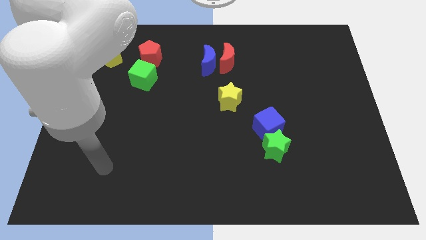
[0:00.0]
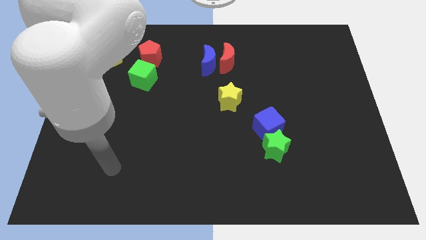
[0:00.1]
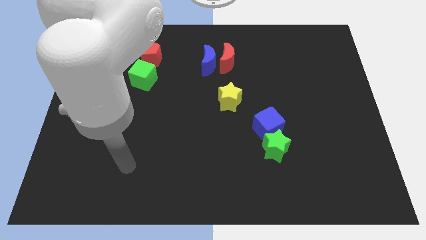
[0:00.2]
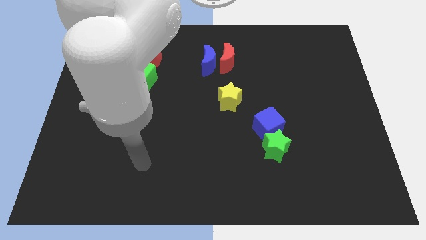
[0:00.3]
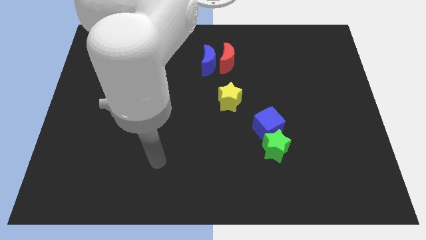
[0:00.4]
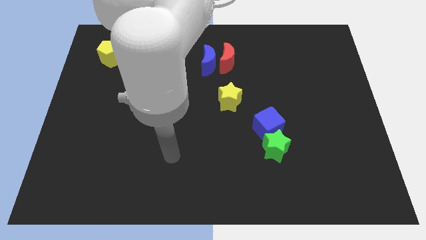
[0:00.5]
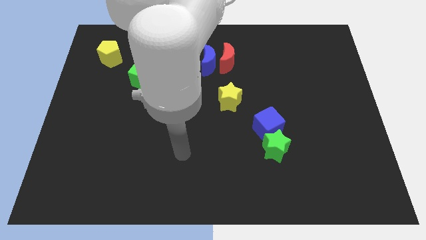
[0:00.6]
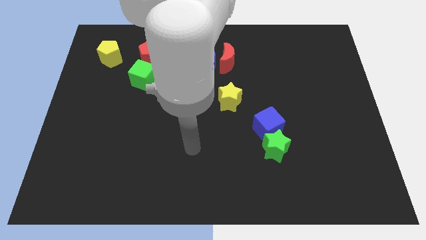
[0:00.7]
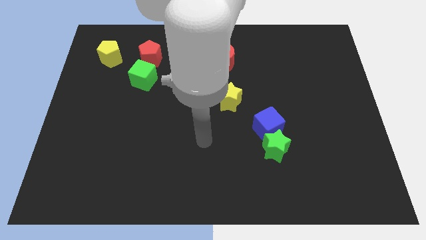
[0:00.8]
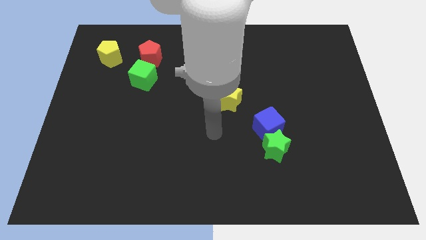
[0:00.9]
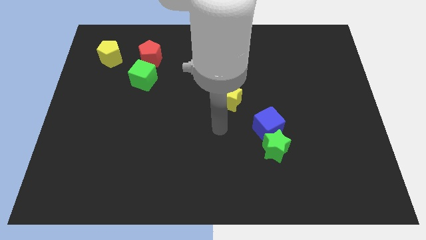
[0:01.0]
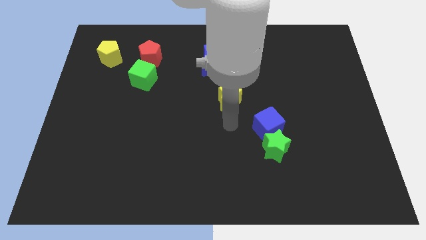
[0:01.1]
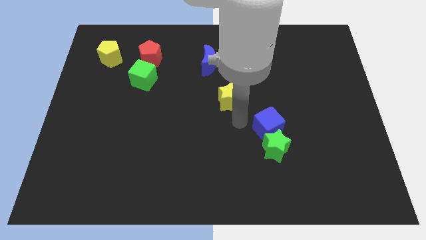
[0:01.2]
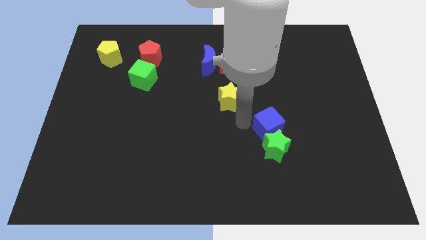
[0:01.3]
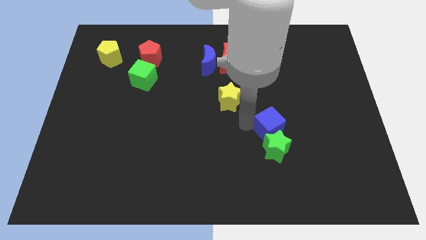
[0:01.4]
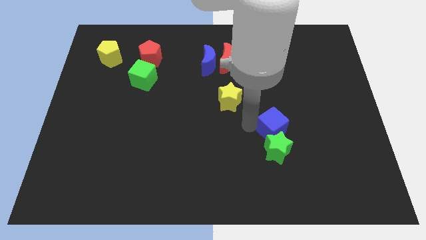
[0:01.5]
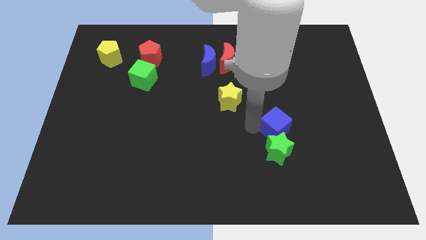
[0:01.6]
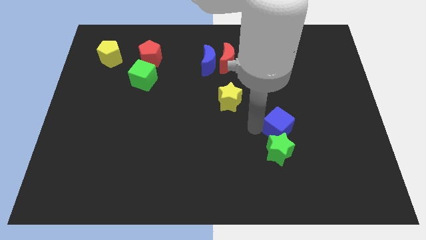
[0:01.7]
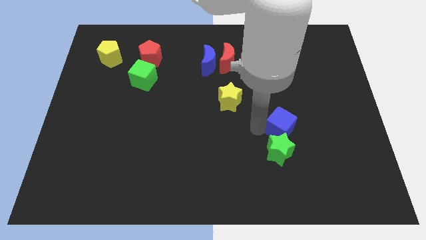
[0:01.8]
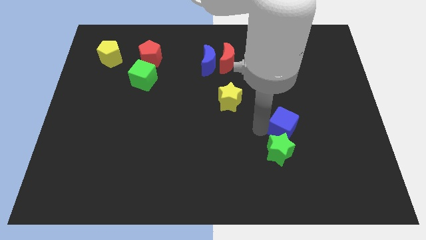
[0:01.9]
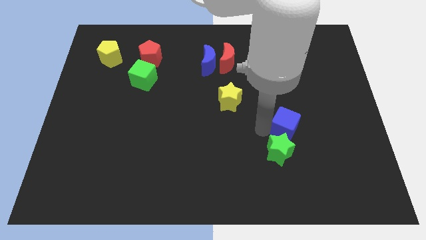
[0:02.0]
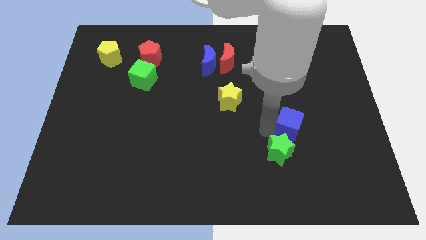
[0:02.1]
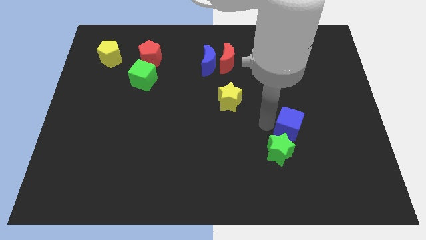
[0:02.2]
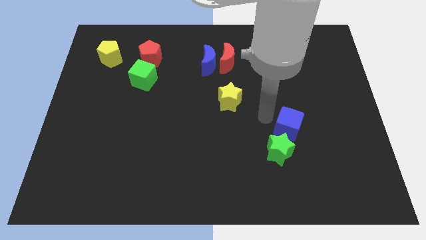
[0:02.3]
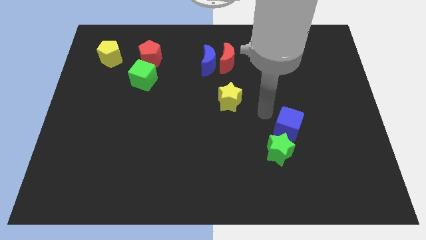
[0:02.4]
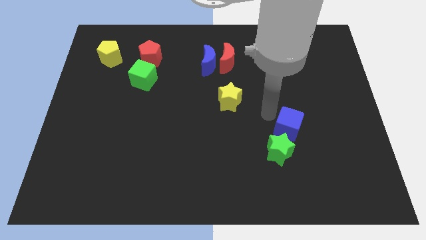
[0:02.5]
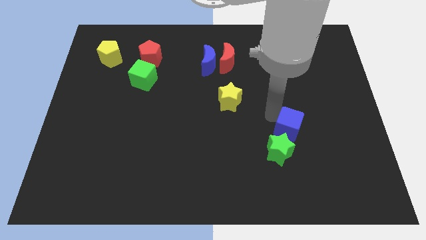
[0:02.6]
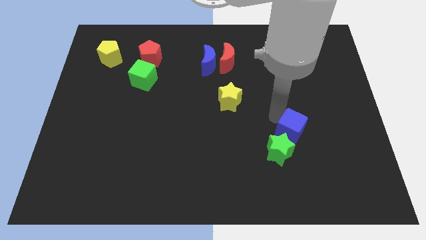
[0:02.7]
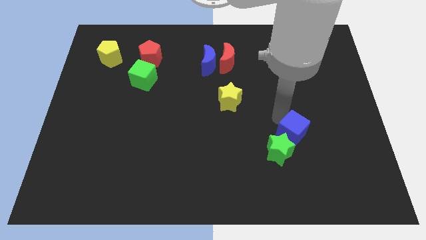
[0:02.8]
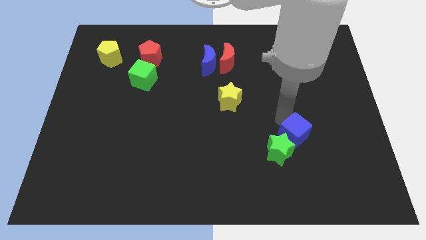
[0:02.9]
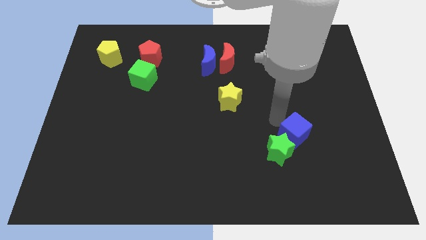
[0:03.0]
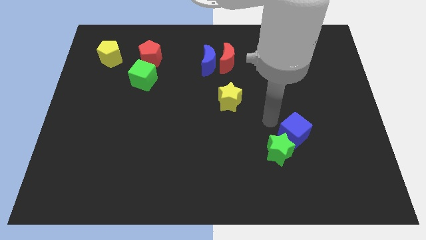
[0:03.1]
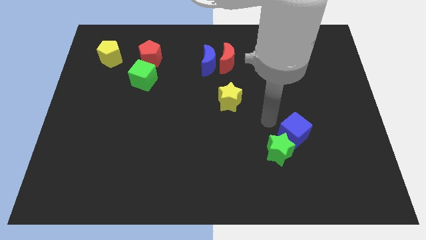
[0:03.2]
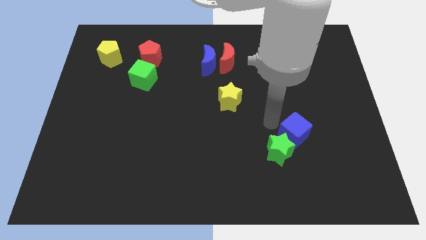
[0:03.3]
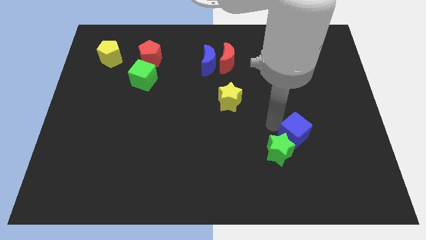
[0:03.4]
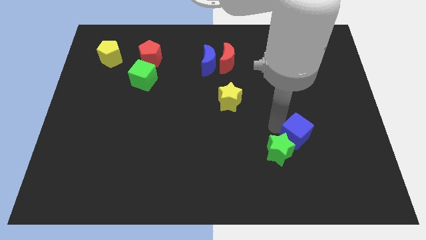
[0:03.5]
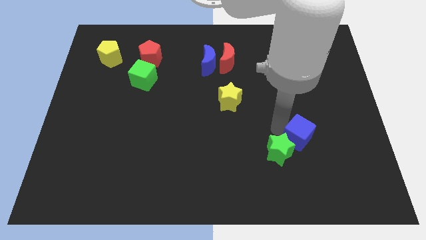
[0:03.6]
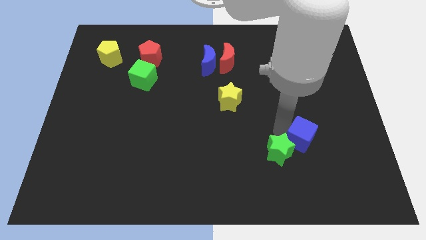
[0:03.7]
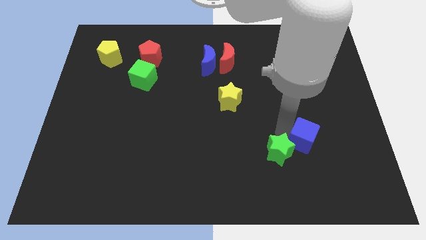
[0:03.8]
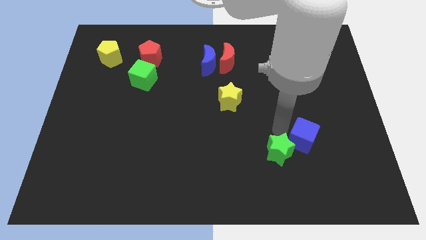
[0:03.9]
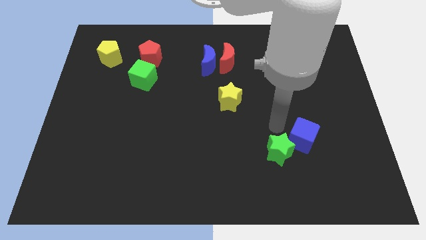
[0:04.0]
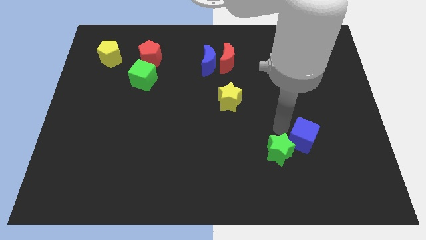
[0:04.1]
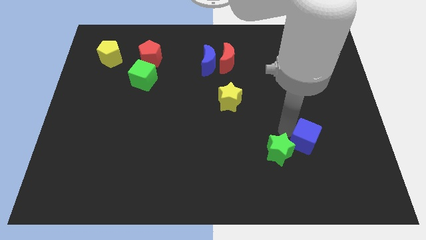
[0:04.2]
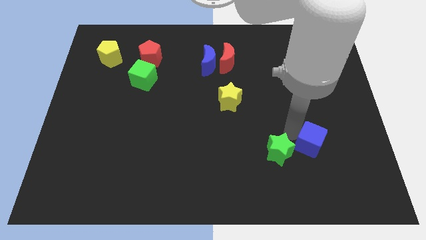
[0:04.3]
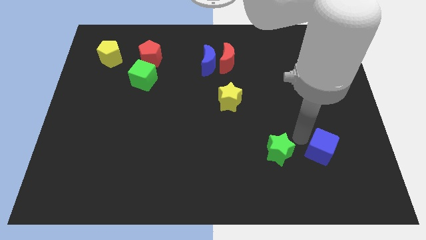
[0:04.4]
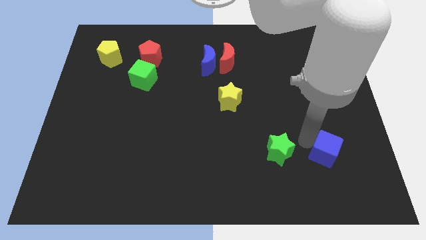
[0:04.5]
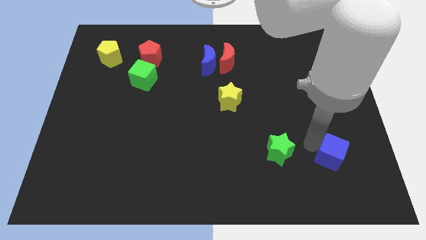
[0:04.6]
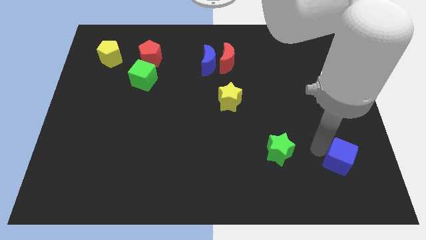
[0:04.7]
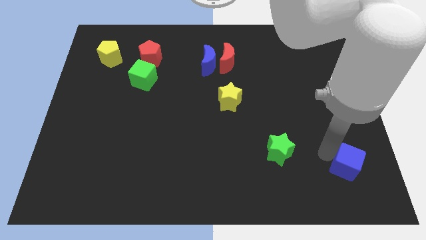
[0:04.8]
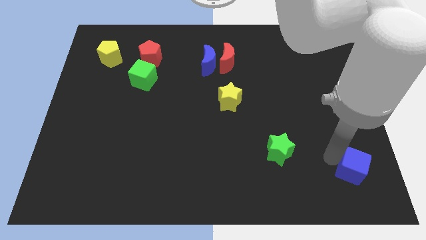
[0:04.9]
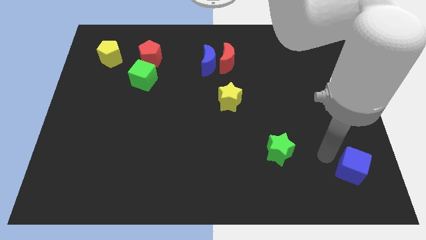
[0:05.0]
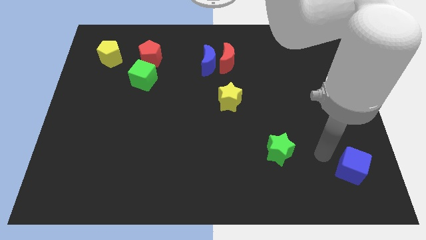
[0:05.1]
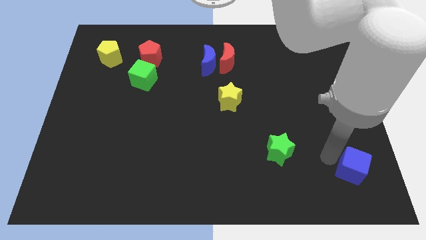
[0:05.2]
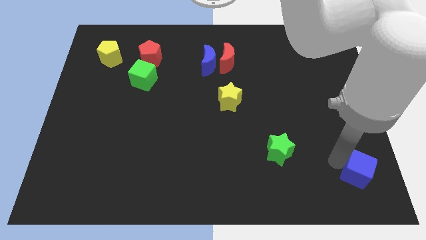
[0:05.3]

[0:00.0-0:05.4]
slide the blue cube to the bottom right corner

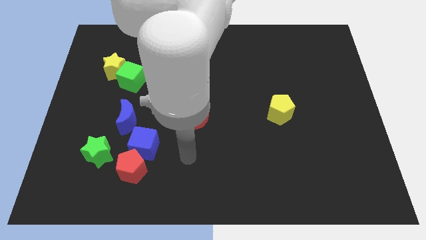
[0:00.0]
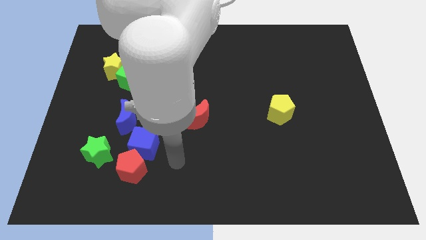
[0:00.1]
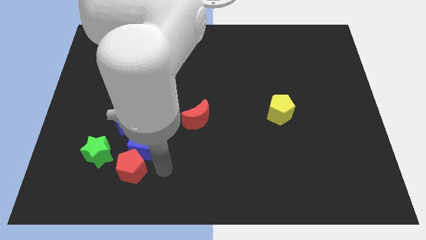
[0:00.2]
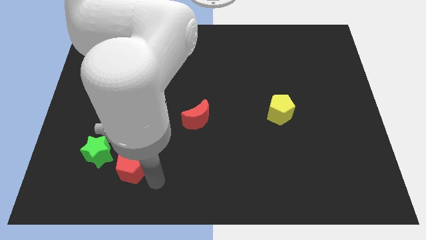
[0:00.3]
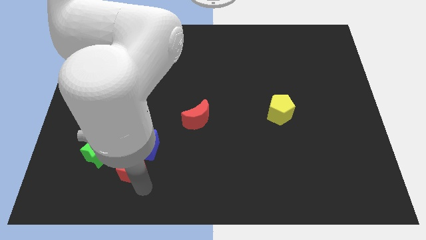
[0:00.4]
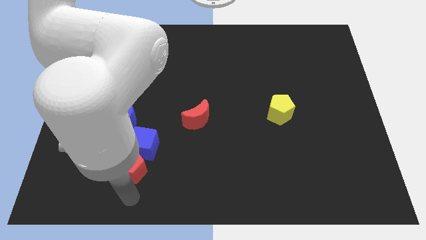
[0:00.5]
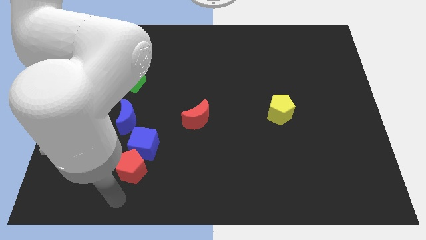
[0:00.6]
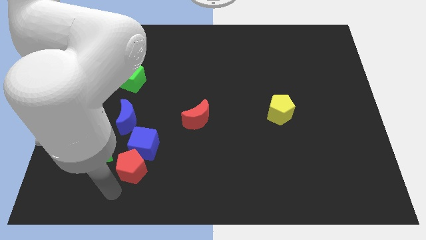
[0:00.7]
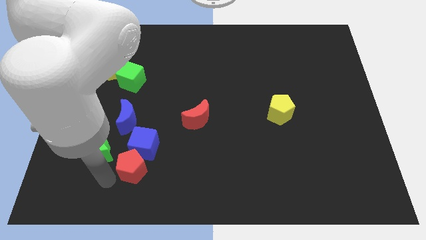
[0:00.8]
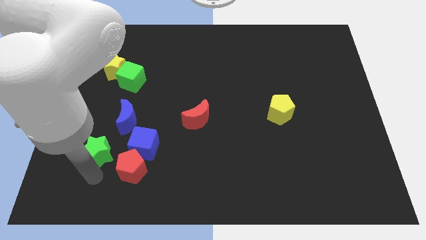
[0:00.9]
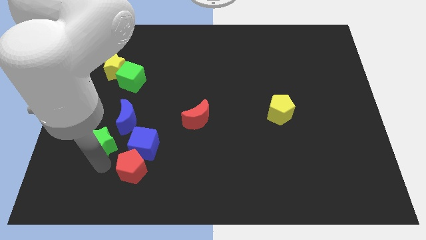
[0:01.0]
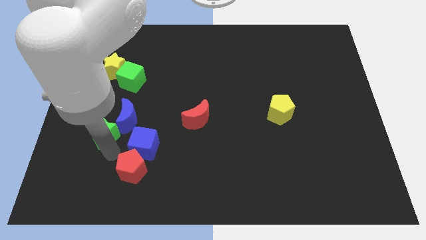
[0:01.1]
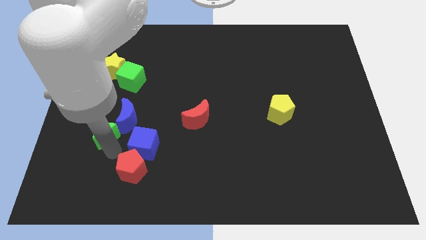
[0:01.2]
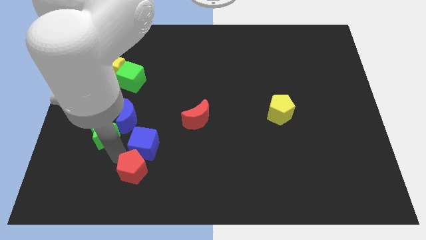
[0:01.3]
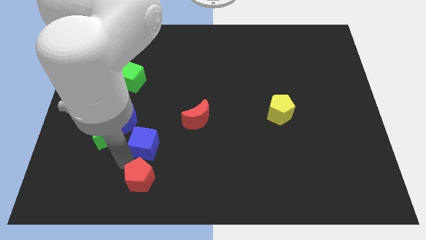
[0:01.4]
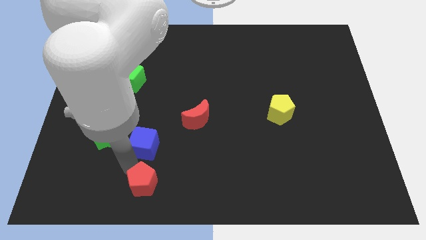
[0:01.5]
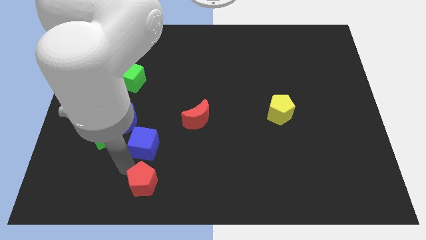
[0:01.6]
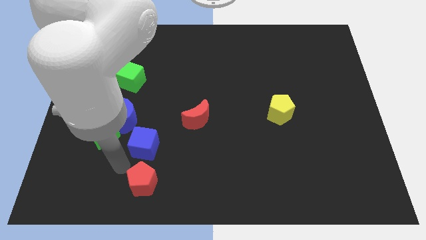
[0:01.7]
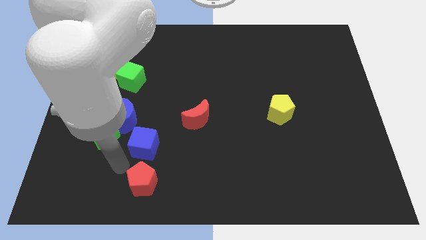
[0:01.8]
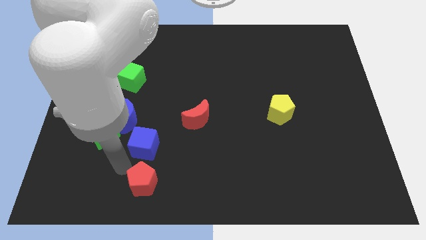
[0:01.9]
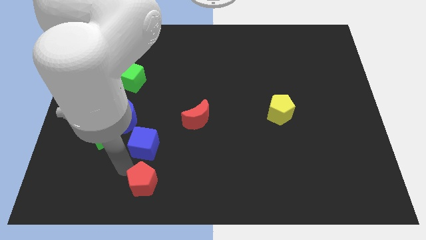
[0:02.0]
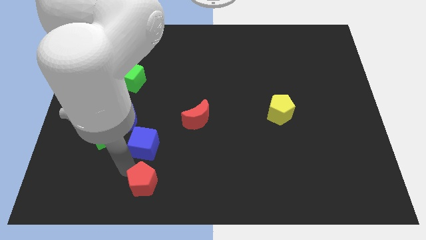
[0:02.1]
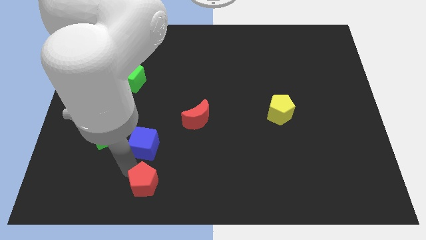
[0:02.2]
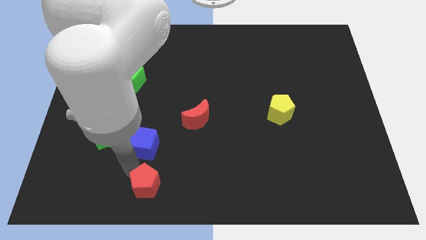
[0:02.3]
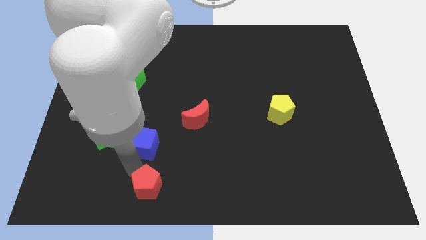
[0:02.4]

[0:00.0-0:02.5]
push the red pentagon to the bottom side
